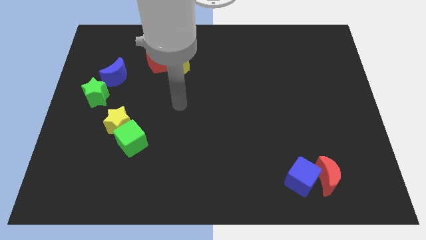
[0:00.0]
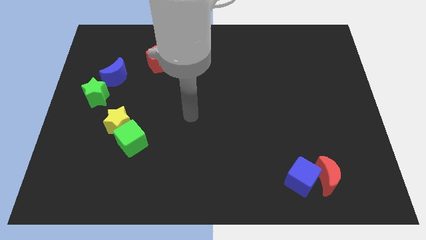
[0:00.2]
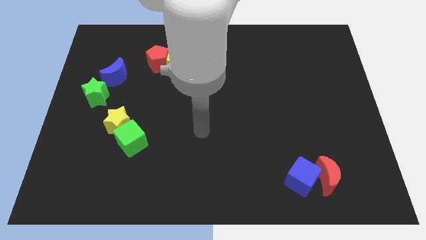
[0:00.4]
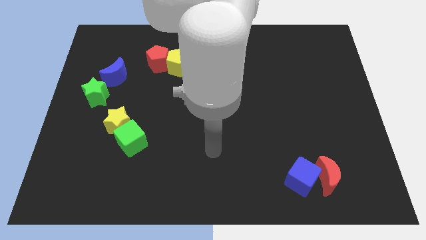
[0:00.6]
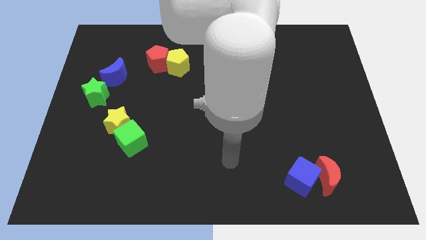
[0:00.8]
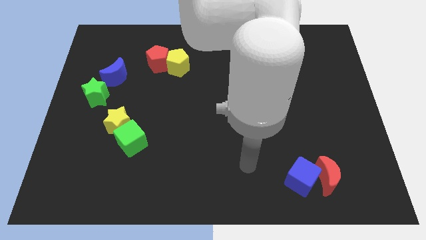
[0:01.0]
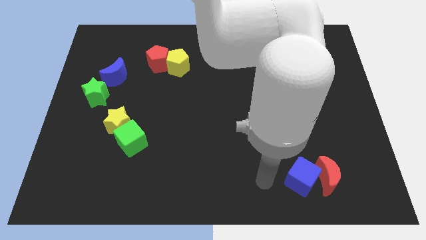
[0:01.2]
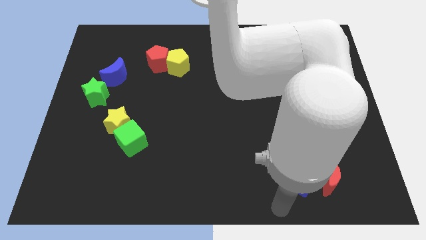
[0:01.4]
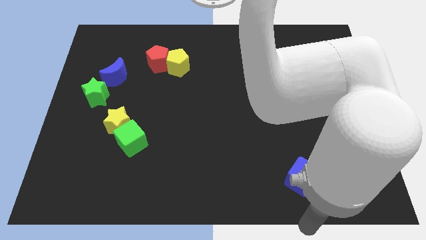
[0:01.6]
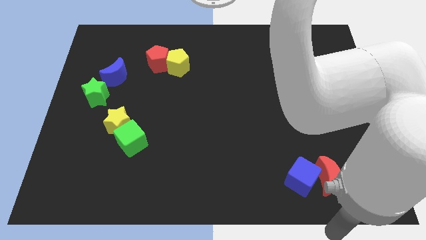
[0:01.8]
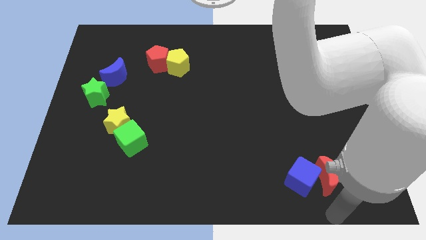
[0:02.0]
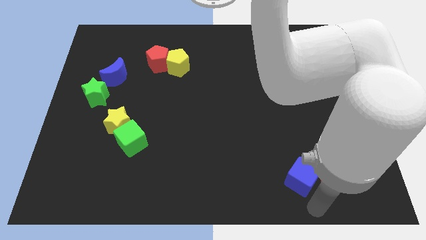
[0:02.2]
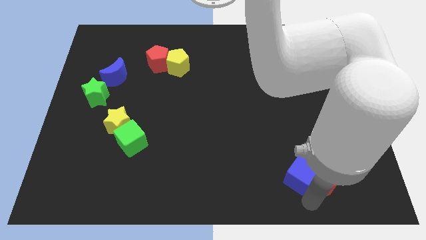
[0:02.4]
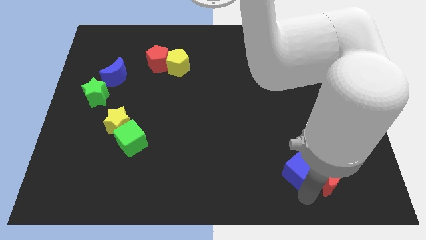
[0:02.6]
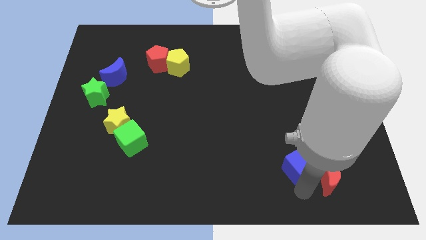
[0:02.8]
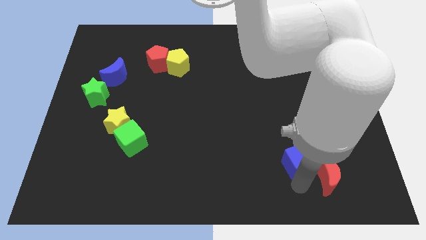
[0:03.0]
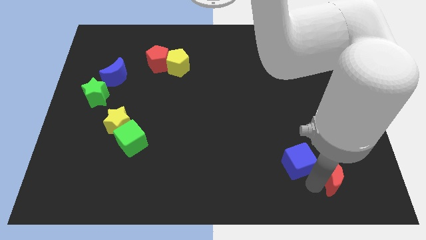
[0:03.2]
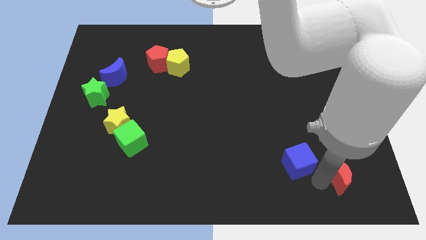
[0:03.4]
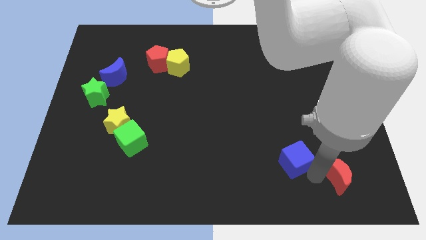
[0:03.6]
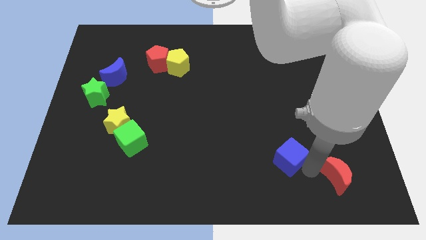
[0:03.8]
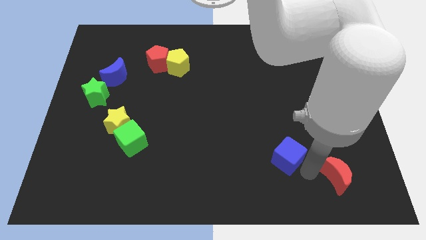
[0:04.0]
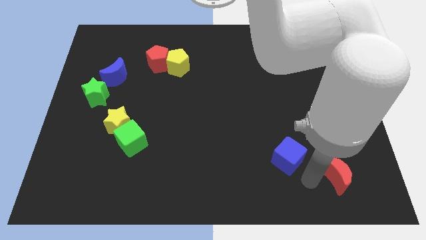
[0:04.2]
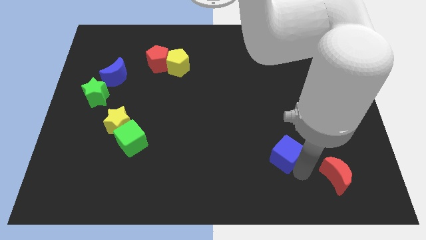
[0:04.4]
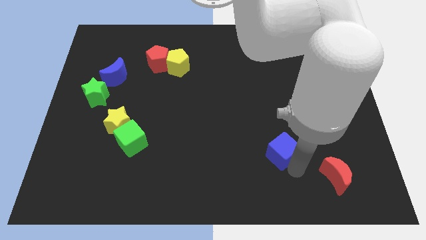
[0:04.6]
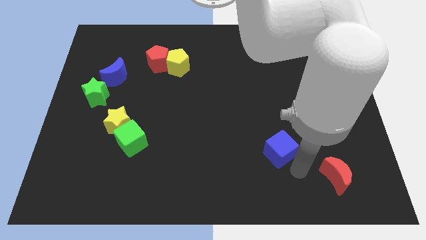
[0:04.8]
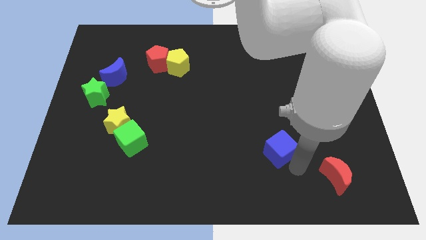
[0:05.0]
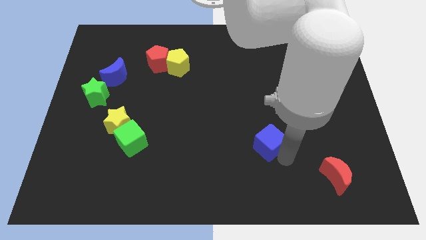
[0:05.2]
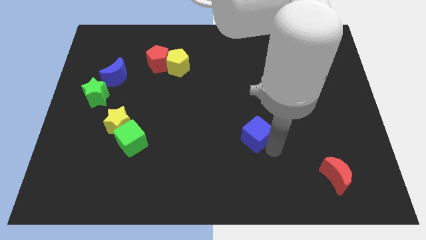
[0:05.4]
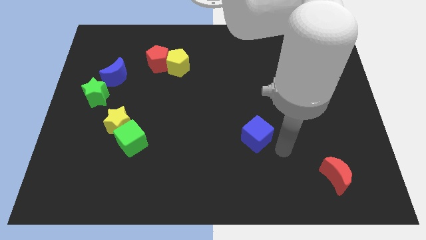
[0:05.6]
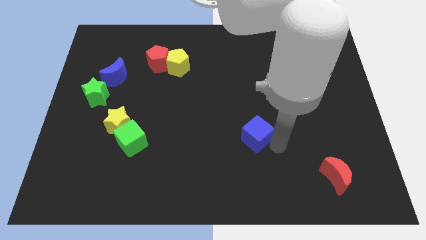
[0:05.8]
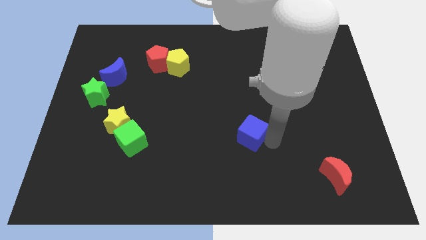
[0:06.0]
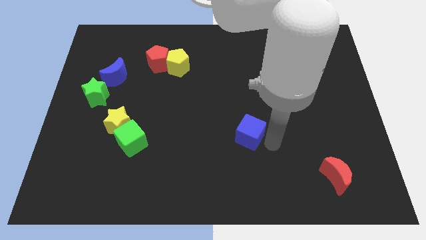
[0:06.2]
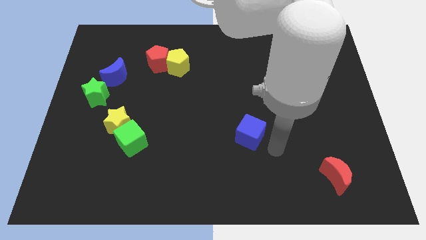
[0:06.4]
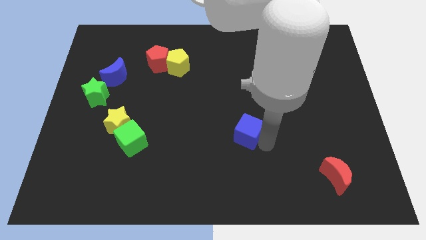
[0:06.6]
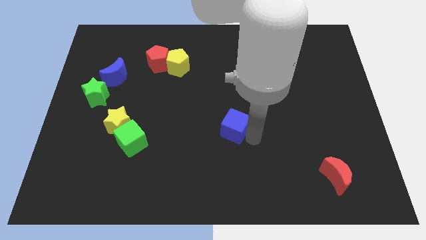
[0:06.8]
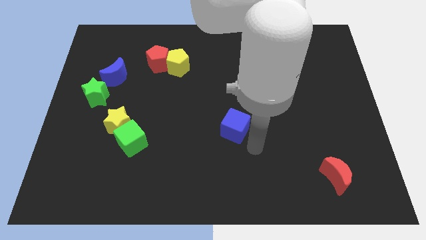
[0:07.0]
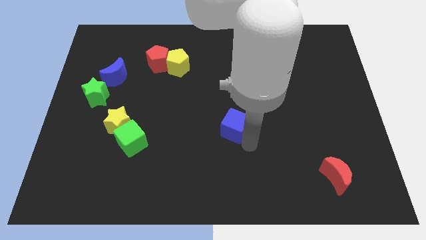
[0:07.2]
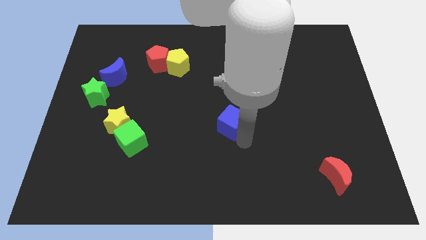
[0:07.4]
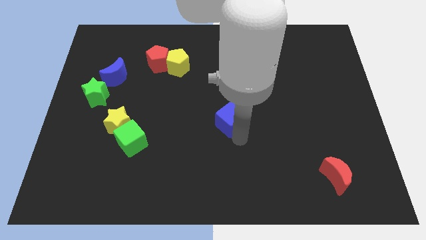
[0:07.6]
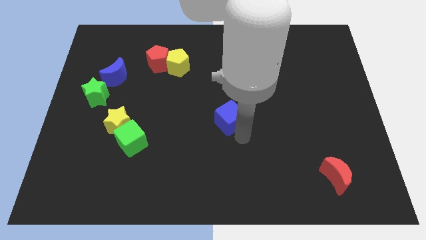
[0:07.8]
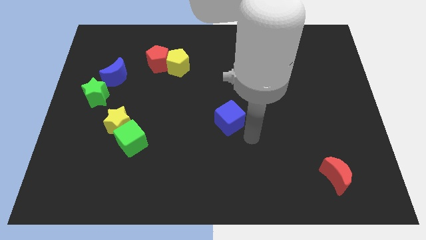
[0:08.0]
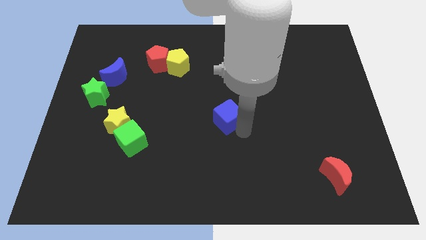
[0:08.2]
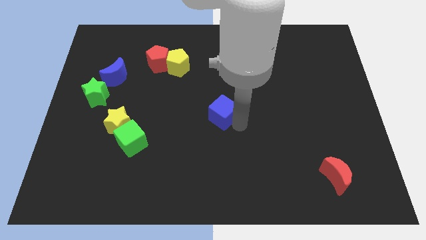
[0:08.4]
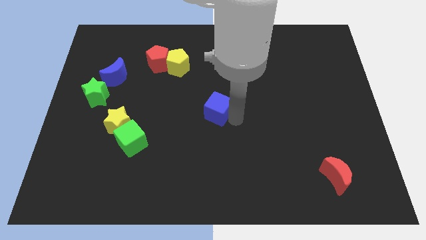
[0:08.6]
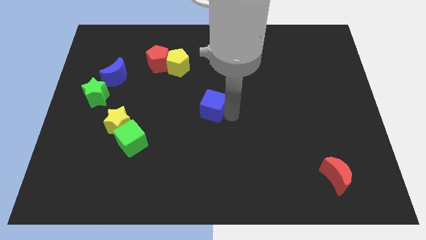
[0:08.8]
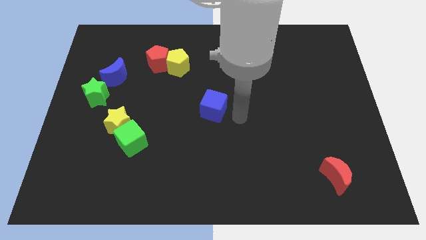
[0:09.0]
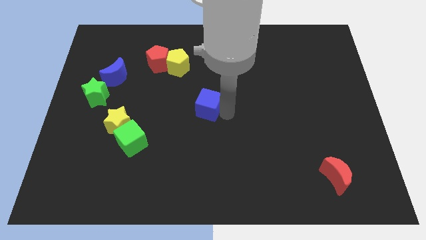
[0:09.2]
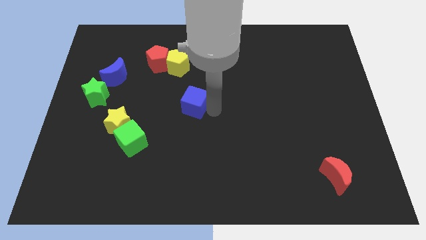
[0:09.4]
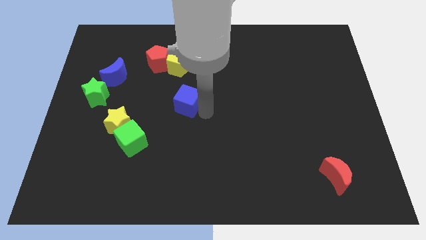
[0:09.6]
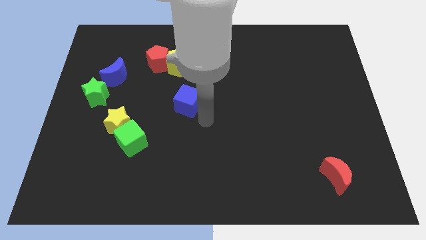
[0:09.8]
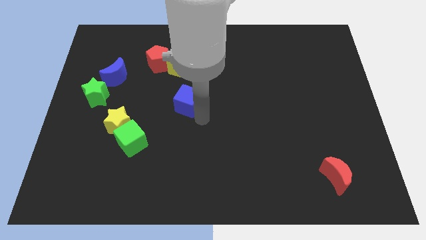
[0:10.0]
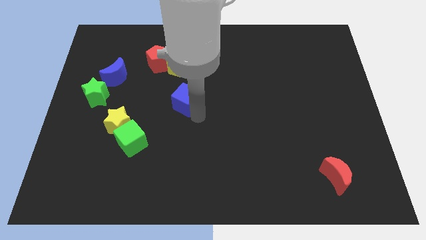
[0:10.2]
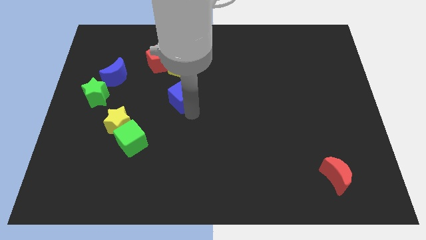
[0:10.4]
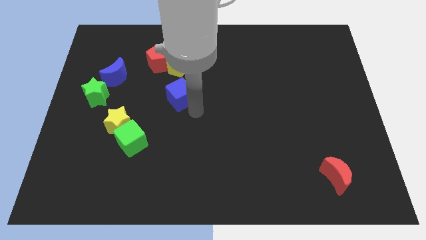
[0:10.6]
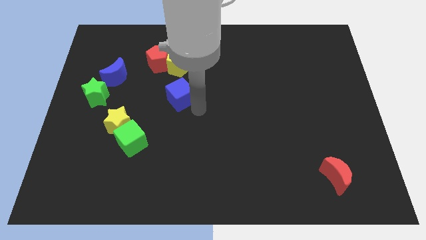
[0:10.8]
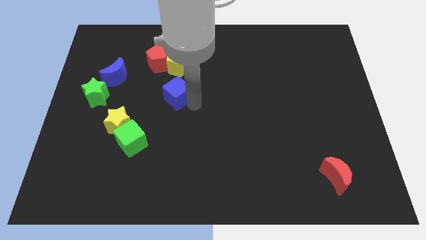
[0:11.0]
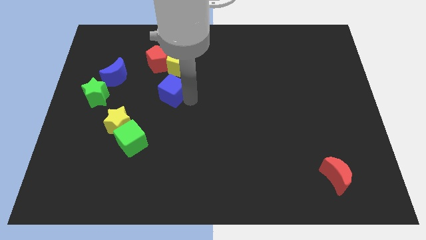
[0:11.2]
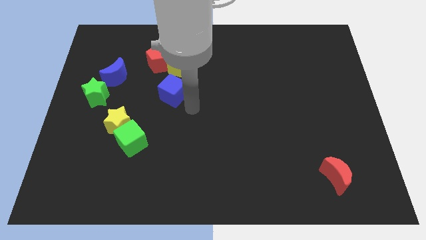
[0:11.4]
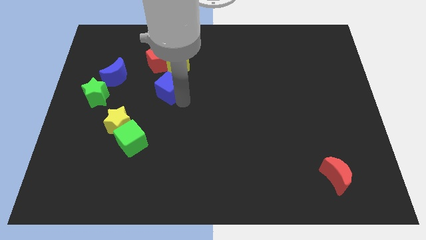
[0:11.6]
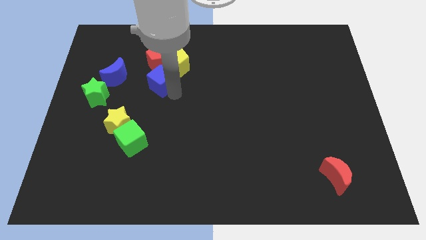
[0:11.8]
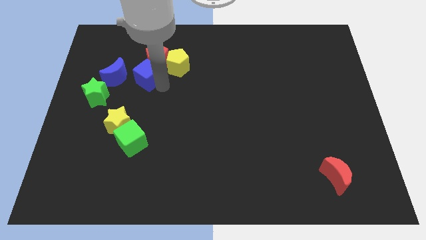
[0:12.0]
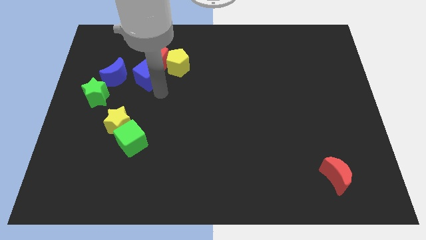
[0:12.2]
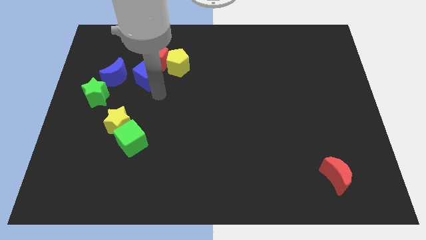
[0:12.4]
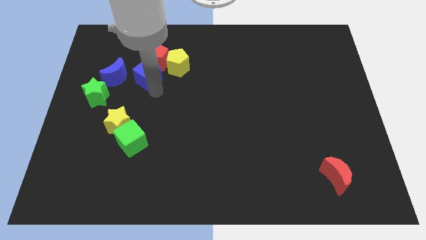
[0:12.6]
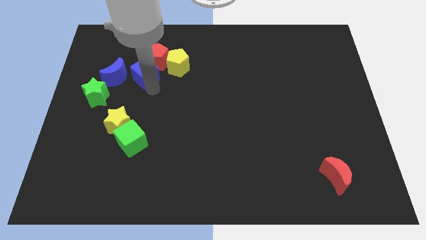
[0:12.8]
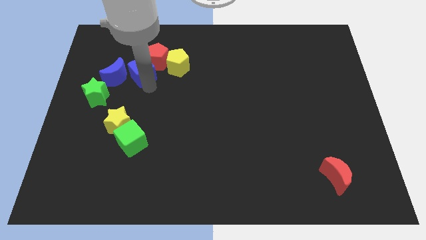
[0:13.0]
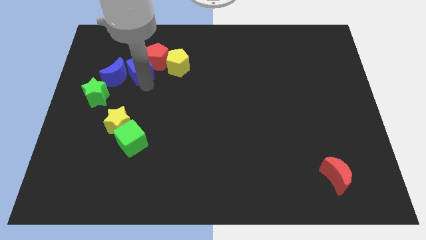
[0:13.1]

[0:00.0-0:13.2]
put the blue cube left of the red pentagon

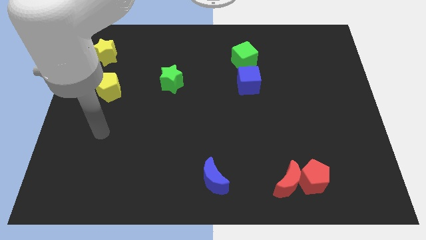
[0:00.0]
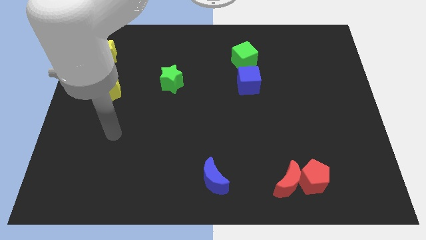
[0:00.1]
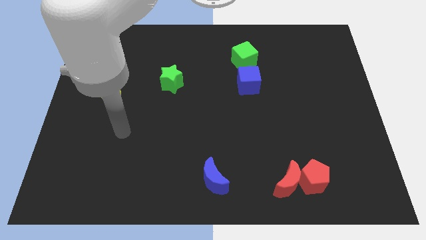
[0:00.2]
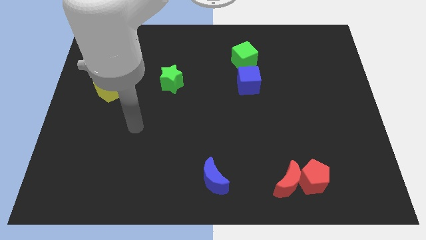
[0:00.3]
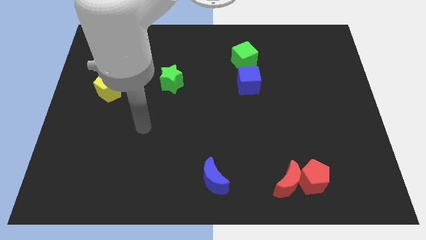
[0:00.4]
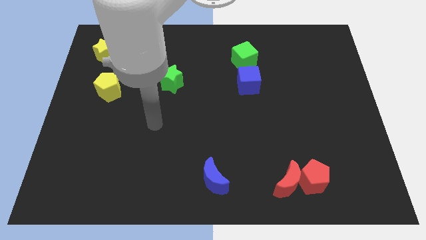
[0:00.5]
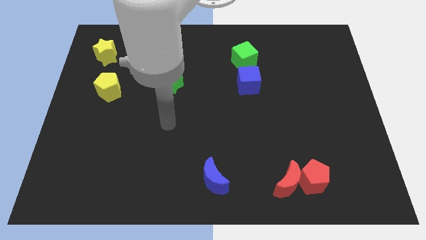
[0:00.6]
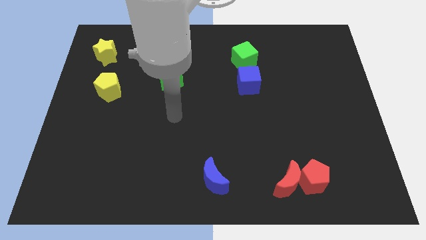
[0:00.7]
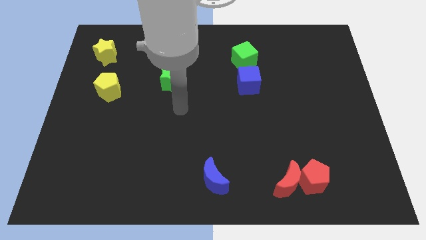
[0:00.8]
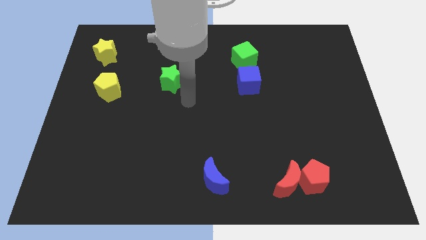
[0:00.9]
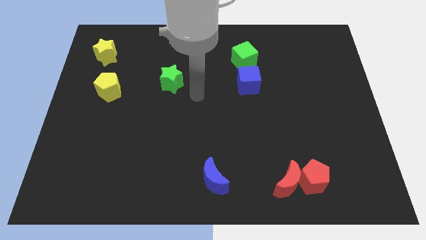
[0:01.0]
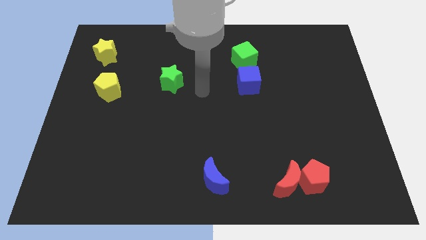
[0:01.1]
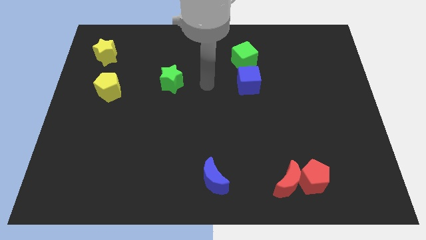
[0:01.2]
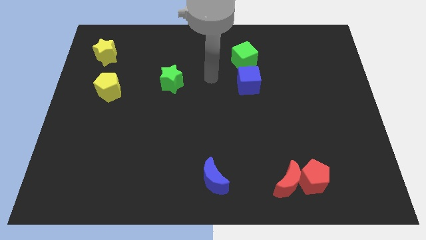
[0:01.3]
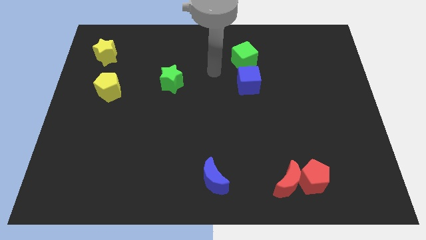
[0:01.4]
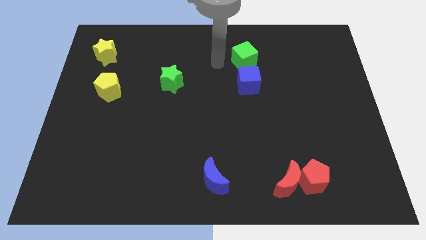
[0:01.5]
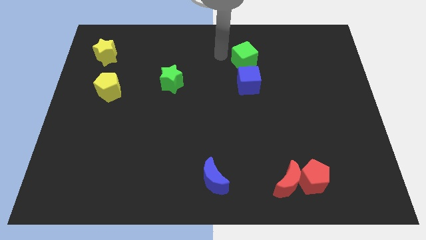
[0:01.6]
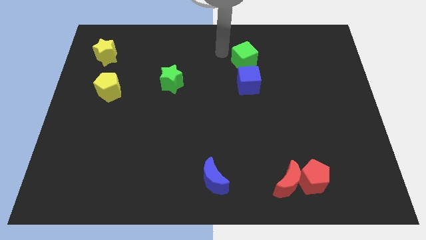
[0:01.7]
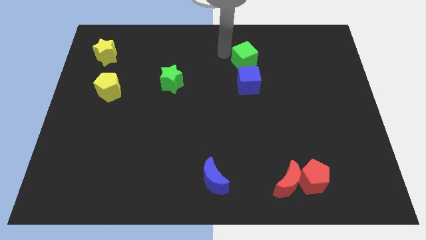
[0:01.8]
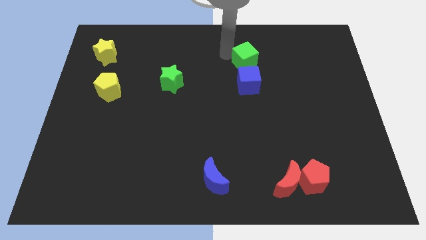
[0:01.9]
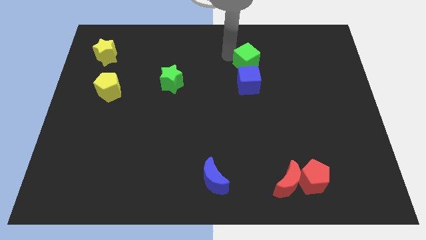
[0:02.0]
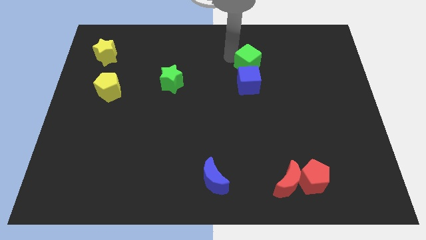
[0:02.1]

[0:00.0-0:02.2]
move the green cube to the top right side of the blue cube
